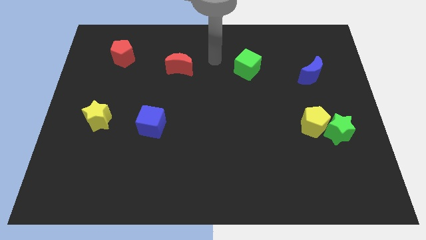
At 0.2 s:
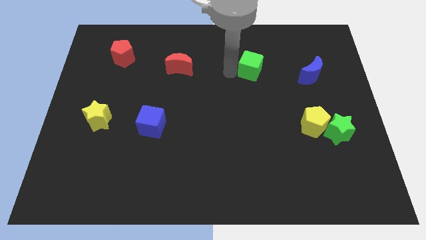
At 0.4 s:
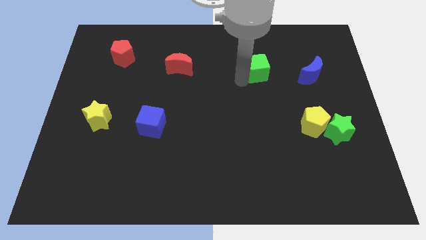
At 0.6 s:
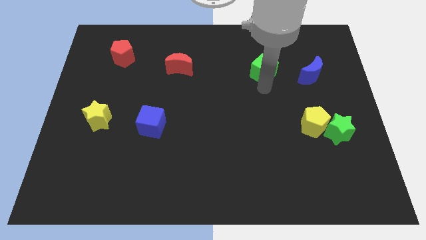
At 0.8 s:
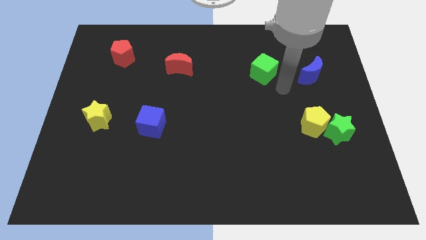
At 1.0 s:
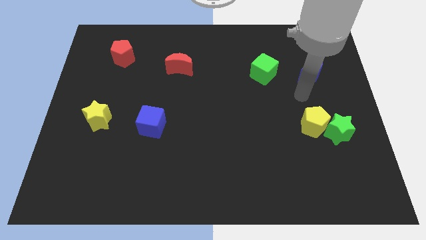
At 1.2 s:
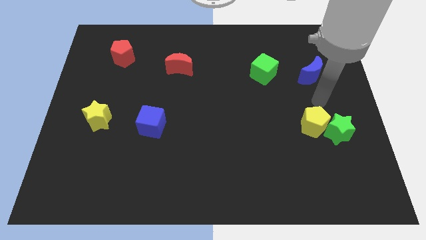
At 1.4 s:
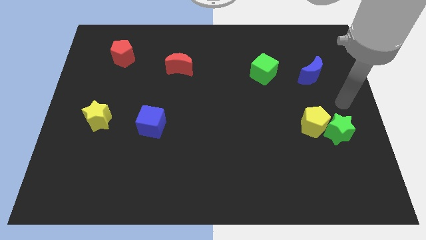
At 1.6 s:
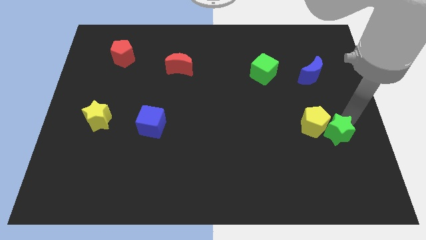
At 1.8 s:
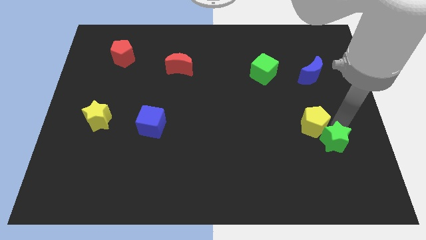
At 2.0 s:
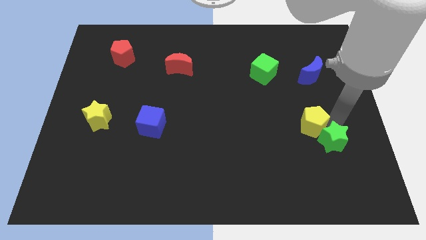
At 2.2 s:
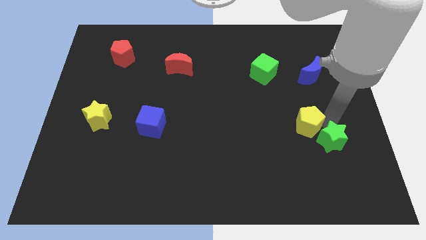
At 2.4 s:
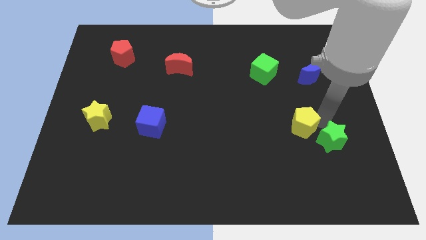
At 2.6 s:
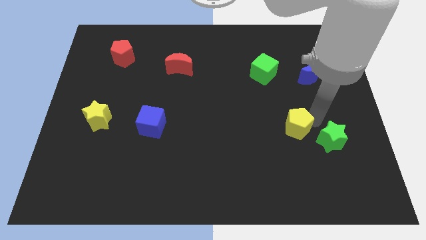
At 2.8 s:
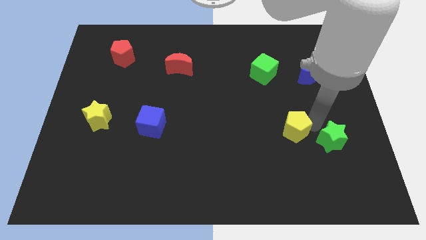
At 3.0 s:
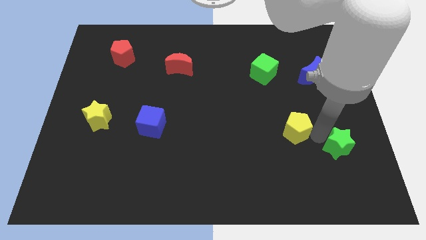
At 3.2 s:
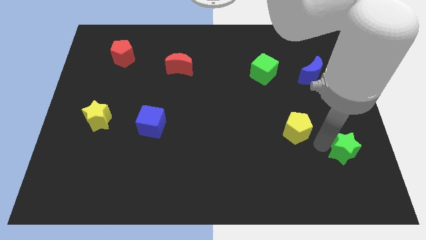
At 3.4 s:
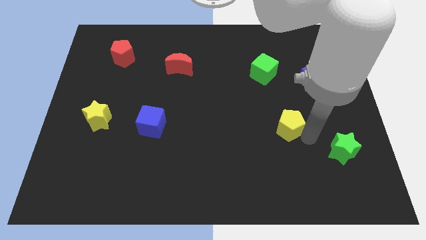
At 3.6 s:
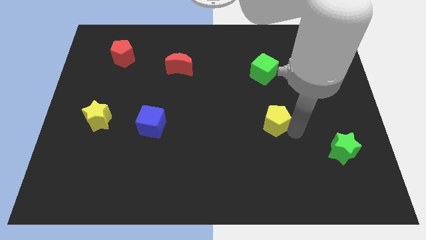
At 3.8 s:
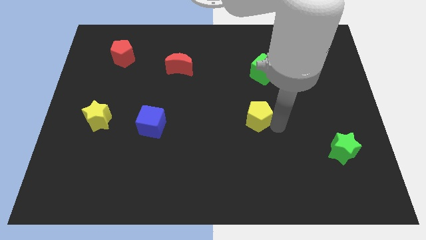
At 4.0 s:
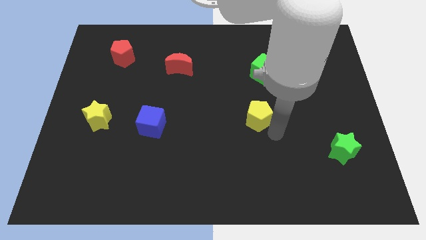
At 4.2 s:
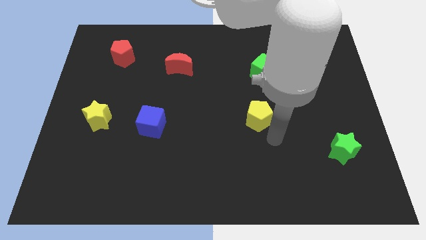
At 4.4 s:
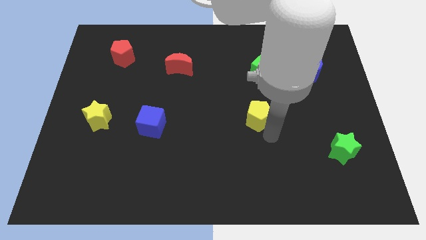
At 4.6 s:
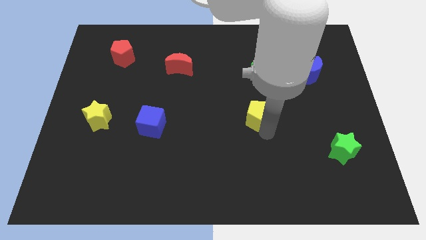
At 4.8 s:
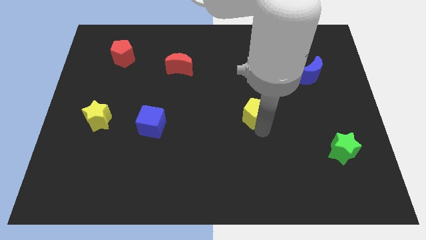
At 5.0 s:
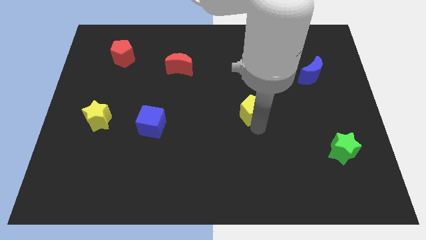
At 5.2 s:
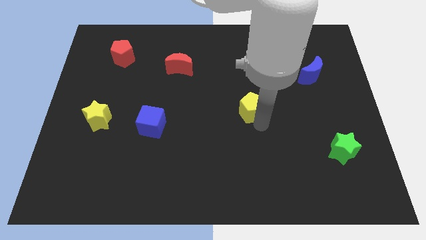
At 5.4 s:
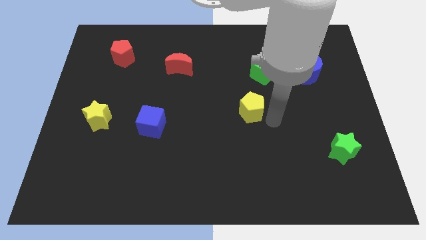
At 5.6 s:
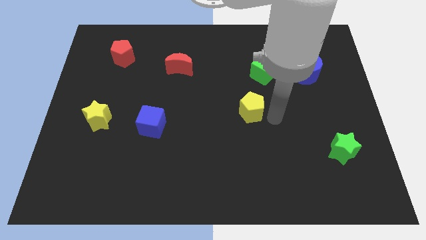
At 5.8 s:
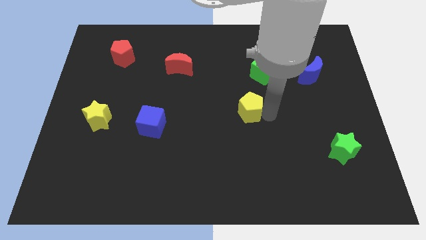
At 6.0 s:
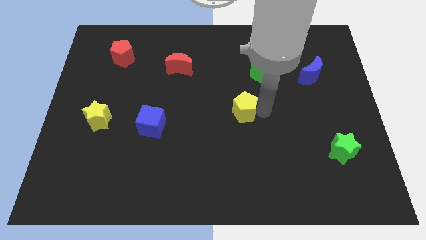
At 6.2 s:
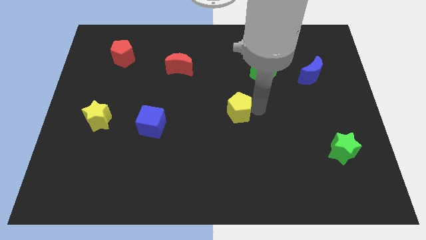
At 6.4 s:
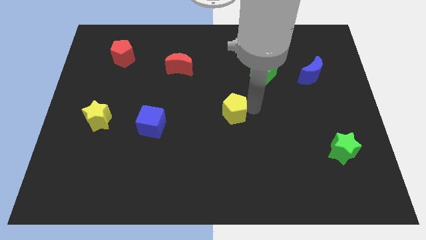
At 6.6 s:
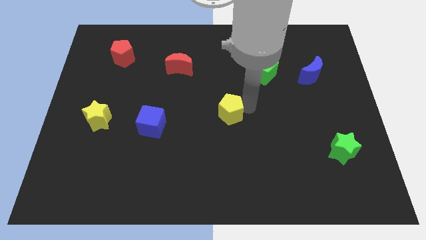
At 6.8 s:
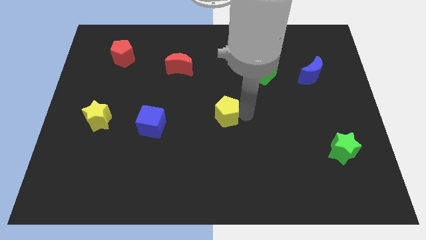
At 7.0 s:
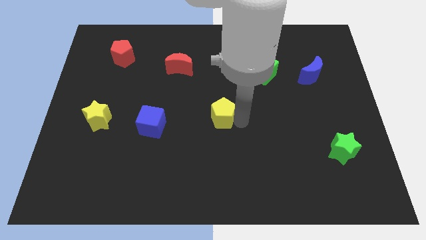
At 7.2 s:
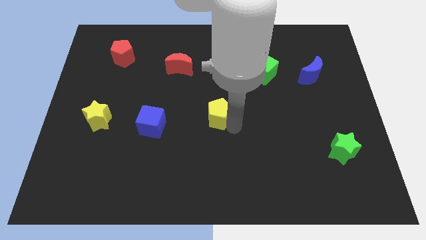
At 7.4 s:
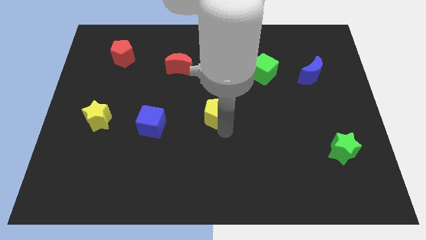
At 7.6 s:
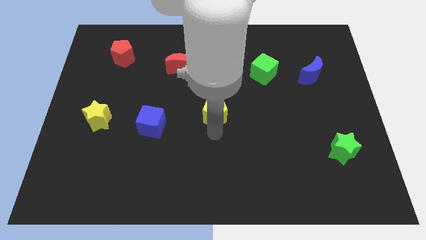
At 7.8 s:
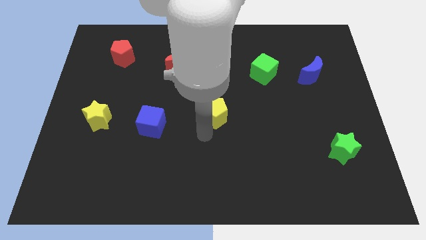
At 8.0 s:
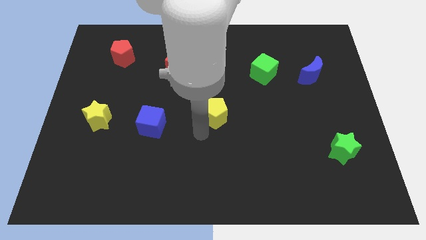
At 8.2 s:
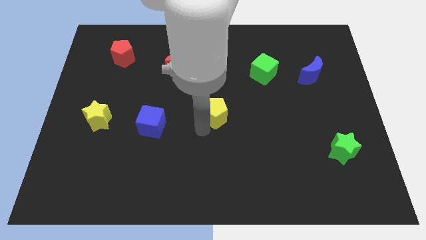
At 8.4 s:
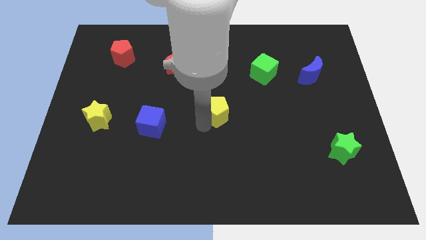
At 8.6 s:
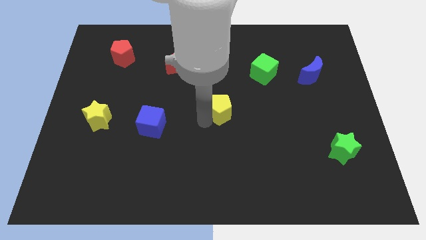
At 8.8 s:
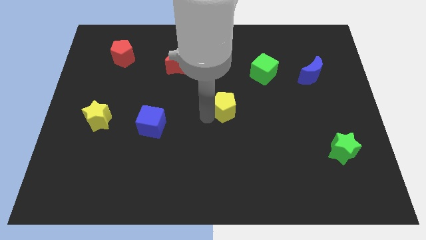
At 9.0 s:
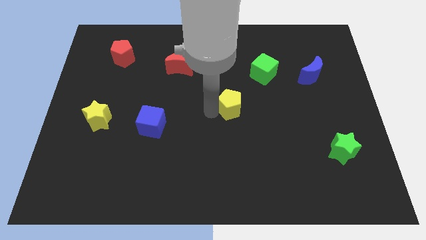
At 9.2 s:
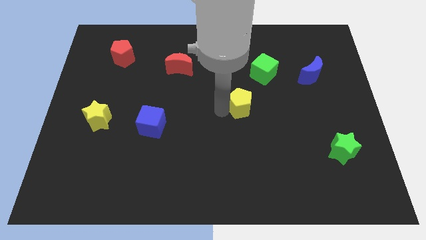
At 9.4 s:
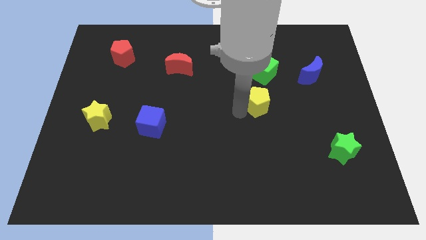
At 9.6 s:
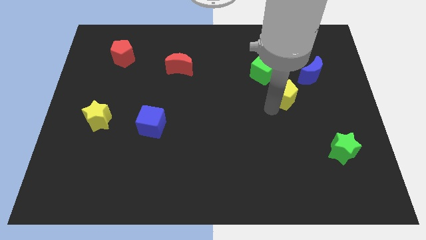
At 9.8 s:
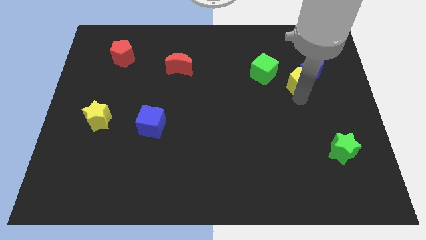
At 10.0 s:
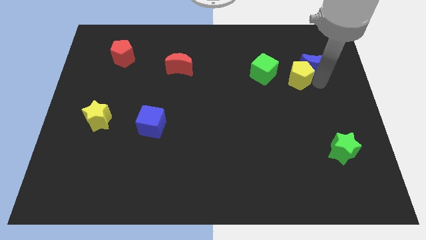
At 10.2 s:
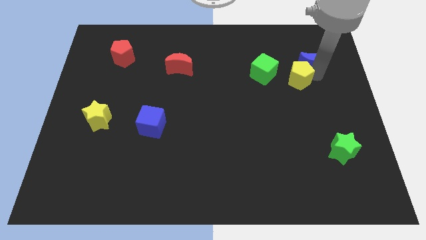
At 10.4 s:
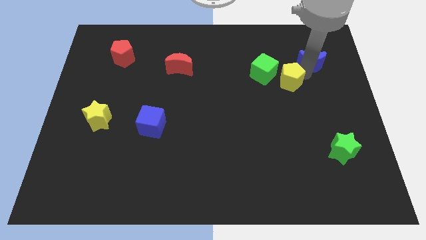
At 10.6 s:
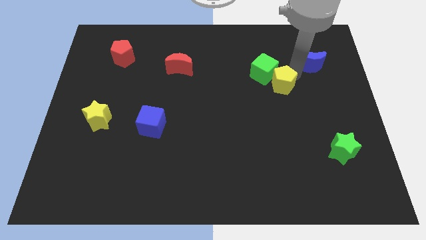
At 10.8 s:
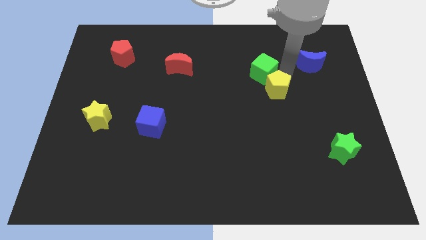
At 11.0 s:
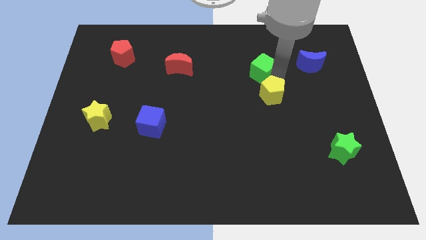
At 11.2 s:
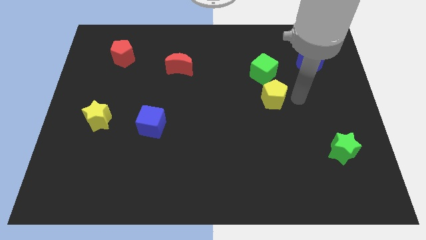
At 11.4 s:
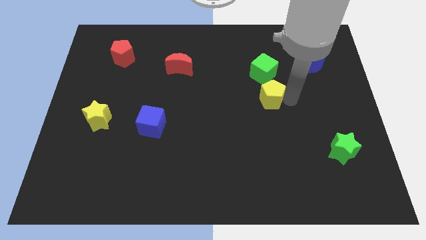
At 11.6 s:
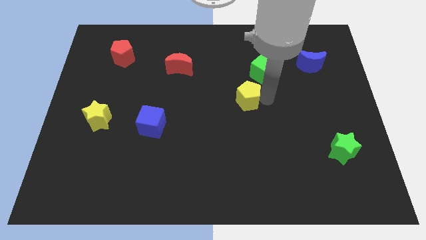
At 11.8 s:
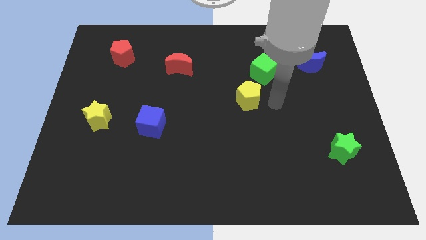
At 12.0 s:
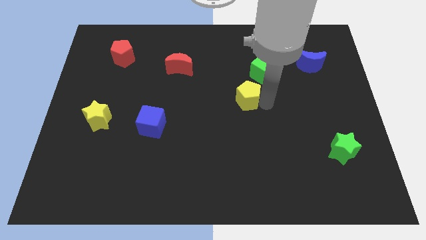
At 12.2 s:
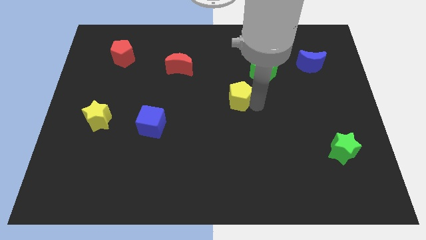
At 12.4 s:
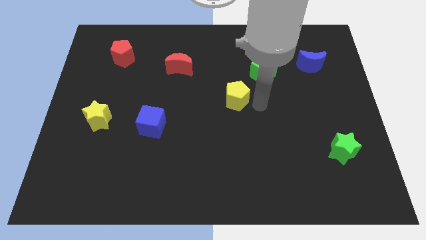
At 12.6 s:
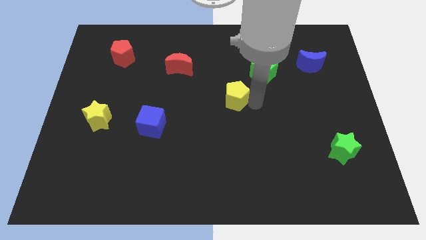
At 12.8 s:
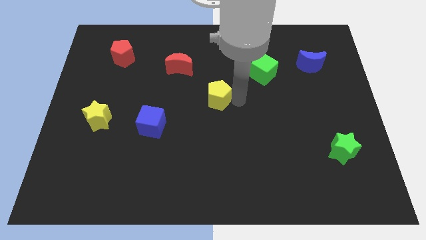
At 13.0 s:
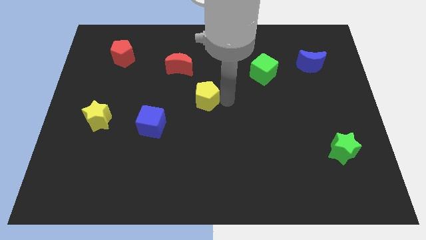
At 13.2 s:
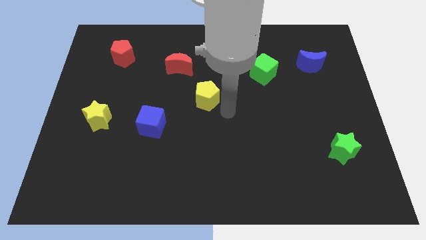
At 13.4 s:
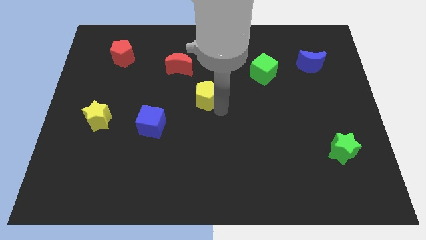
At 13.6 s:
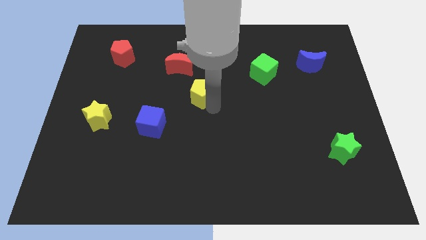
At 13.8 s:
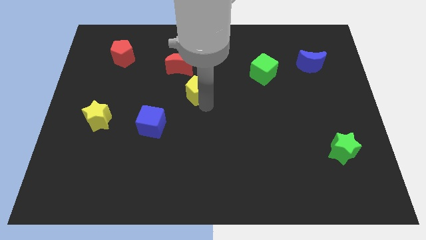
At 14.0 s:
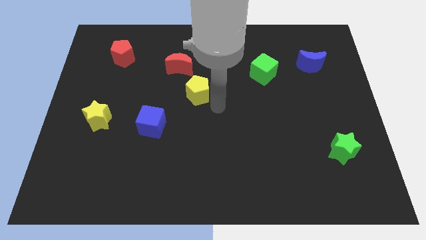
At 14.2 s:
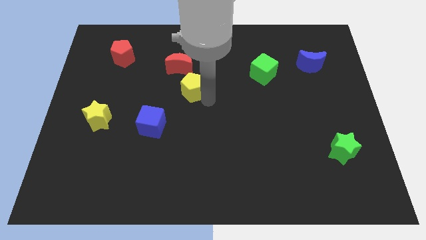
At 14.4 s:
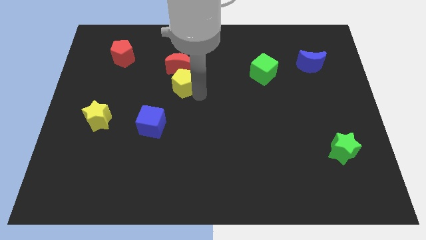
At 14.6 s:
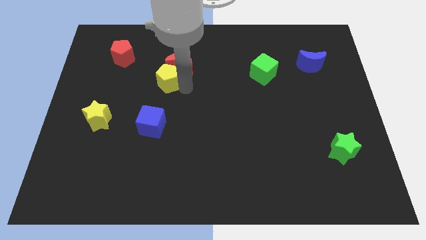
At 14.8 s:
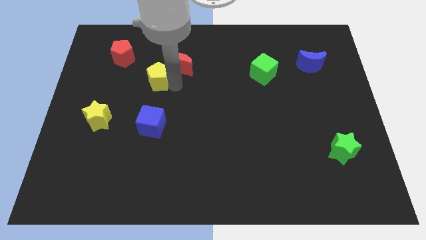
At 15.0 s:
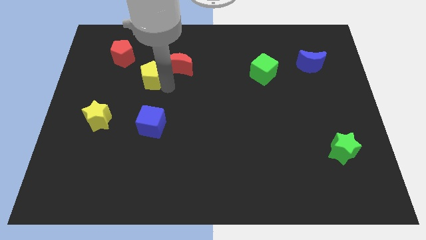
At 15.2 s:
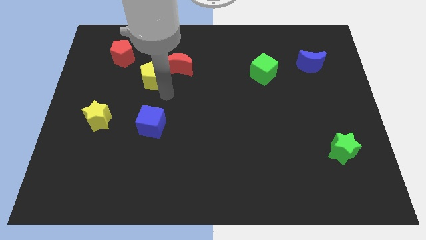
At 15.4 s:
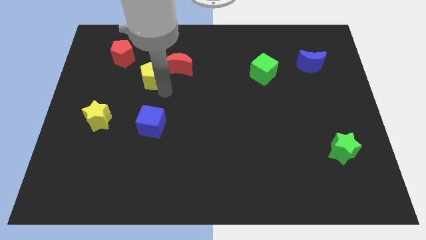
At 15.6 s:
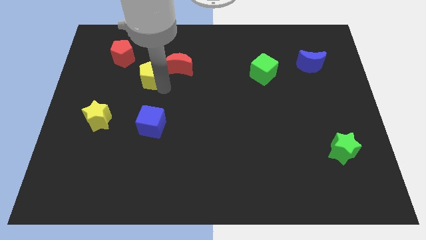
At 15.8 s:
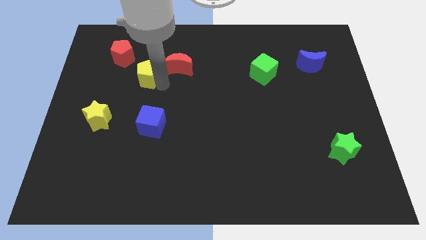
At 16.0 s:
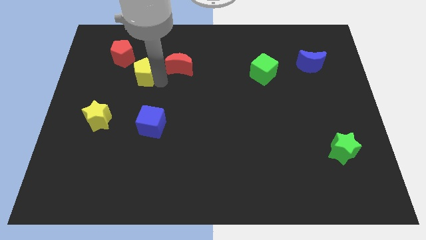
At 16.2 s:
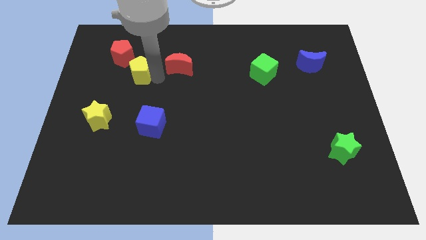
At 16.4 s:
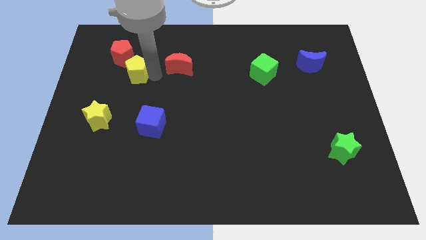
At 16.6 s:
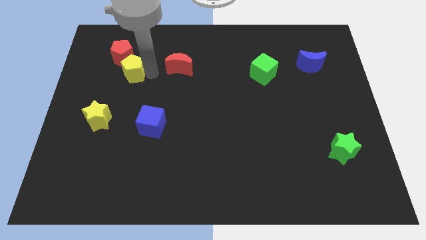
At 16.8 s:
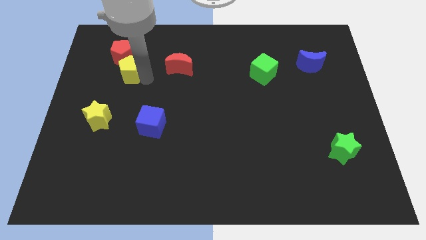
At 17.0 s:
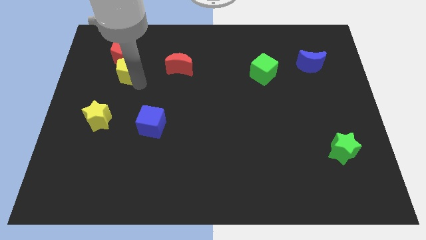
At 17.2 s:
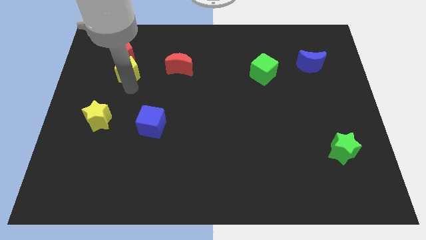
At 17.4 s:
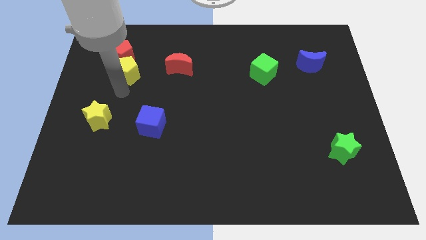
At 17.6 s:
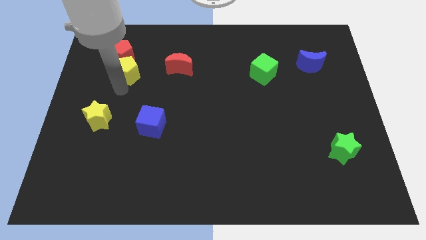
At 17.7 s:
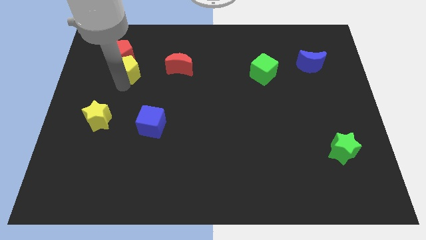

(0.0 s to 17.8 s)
put the yellow pentagon close to the red pentagon
